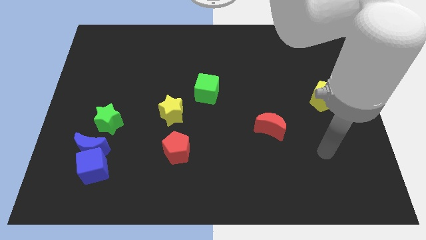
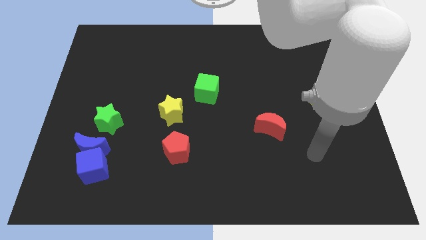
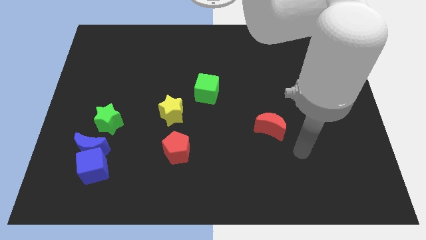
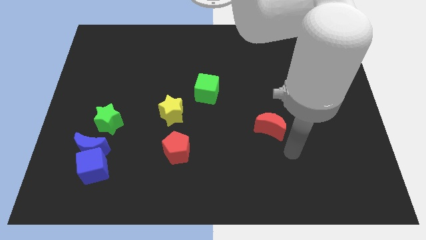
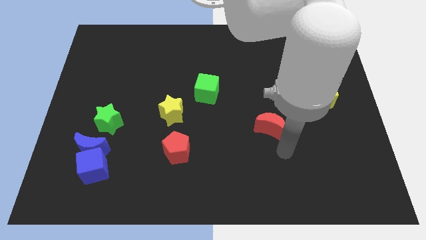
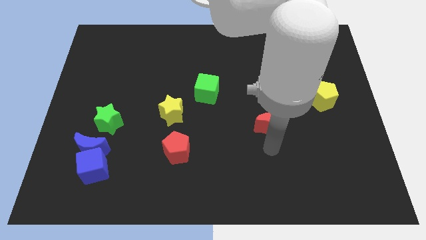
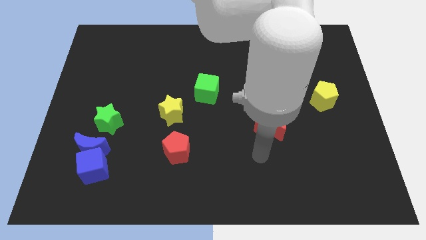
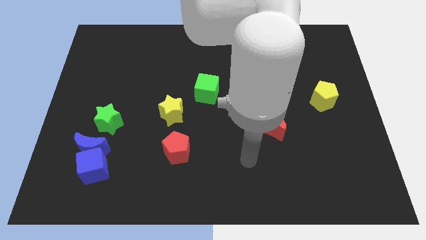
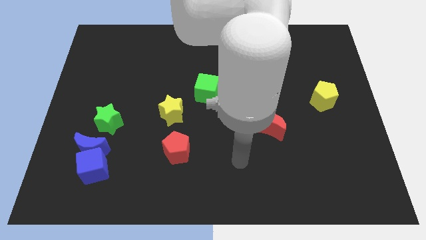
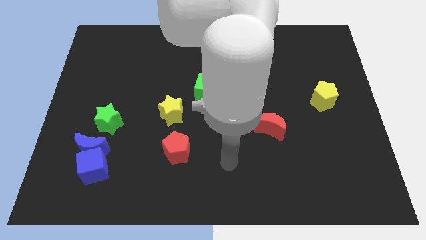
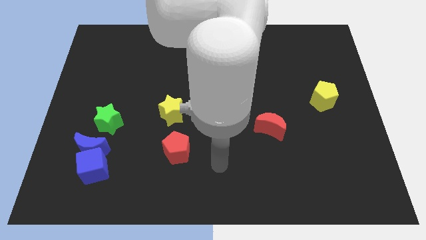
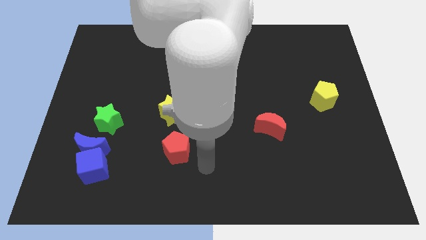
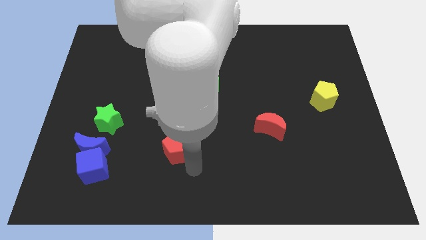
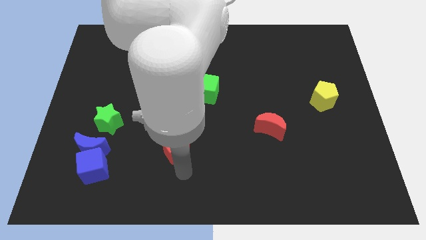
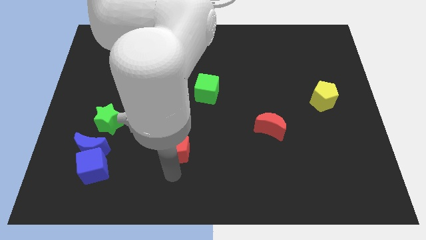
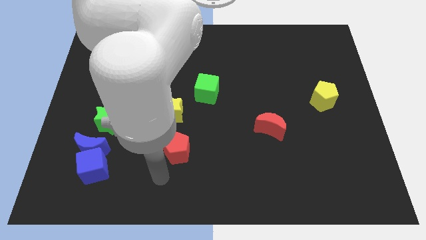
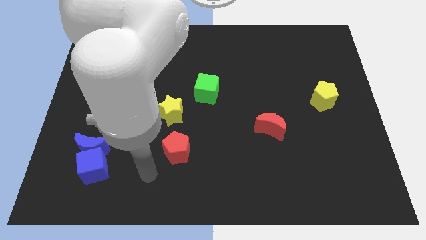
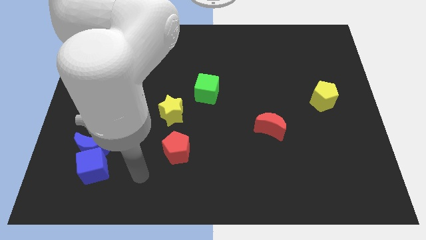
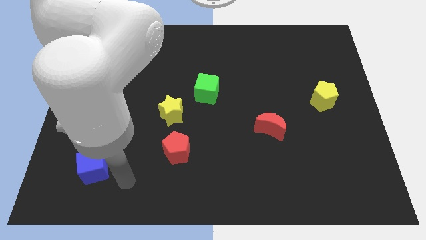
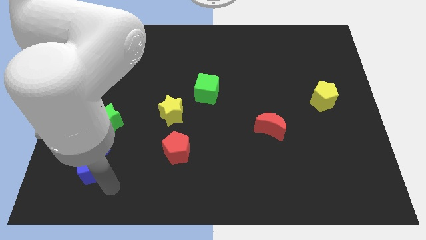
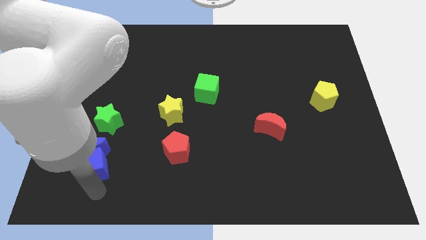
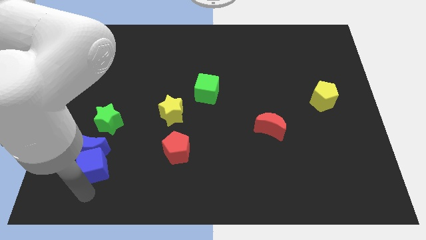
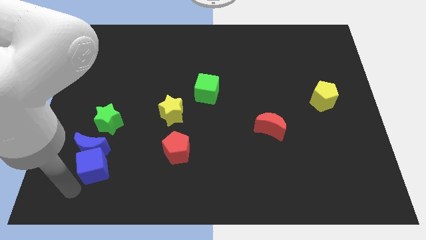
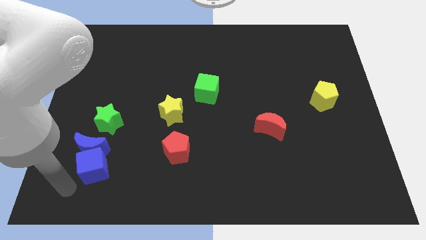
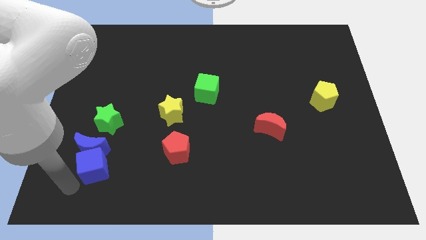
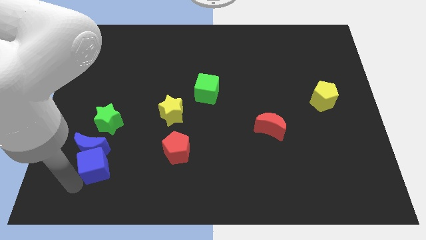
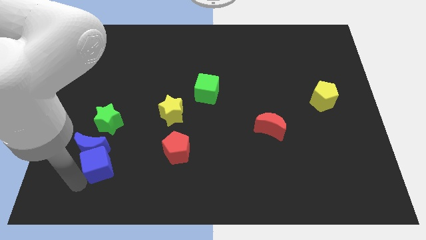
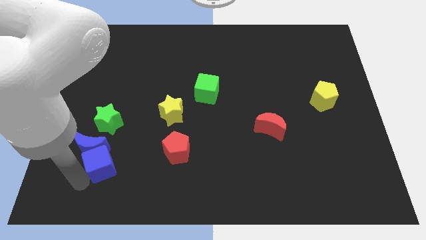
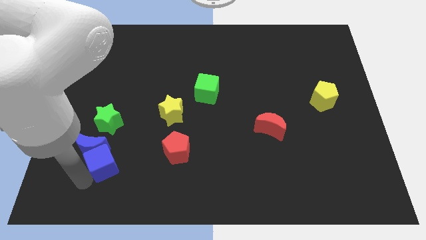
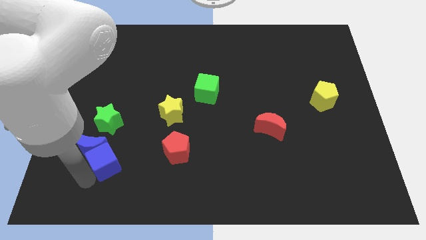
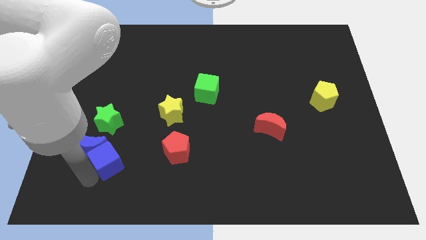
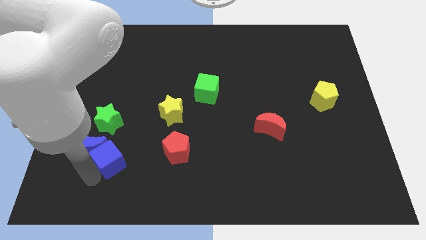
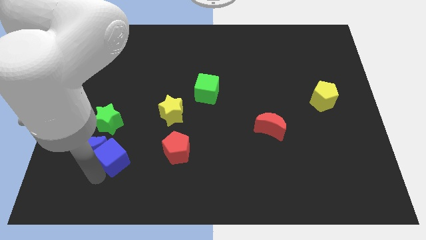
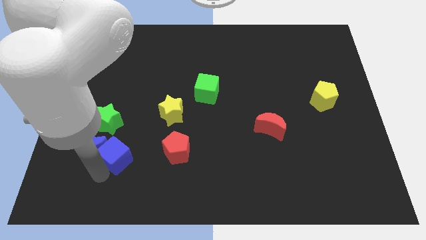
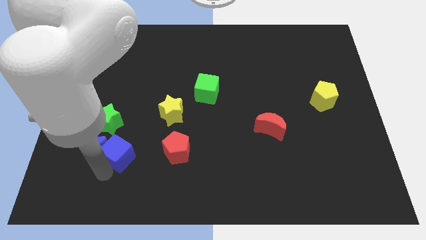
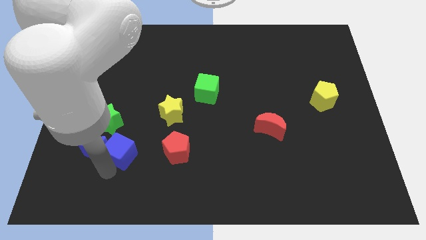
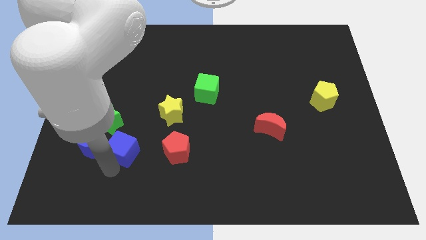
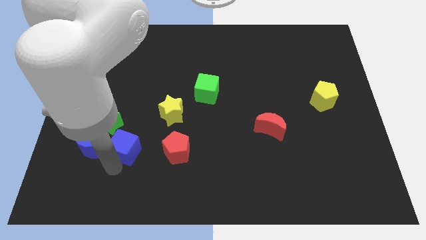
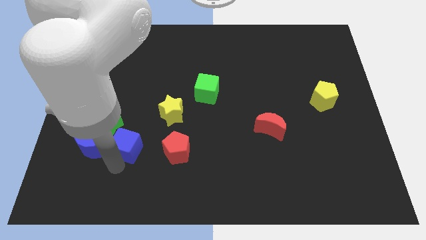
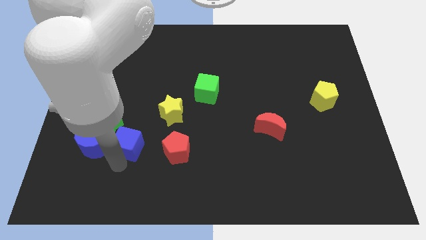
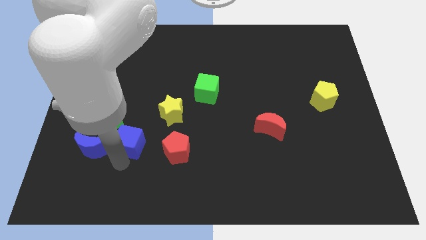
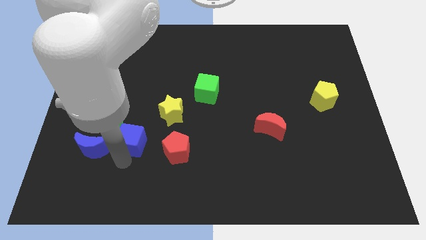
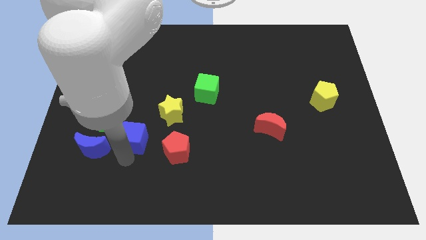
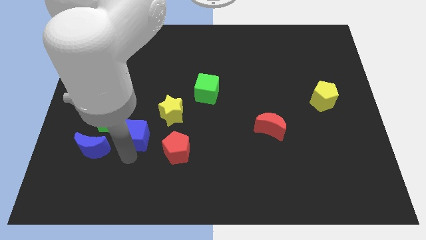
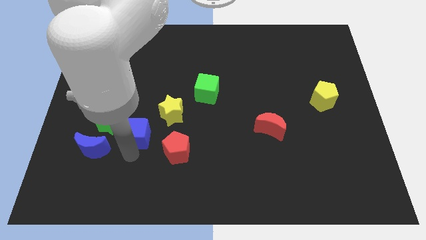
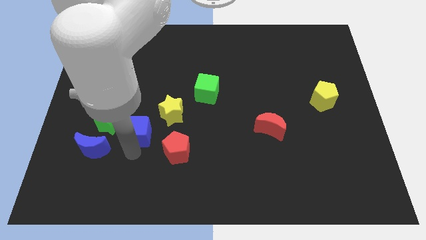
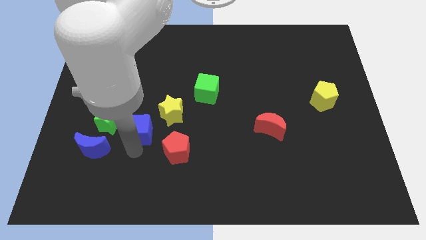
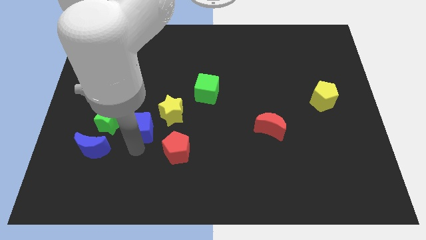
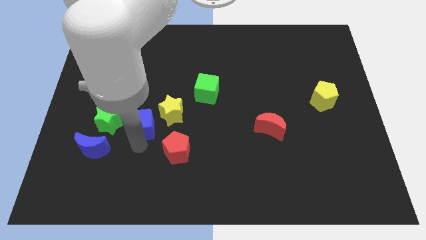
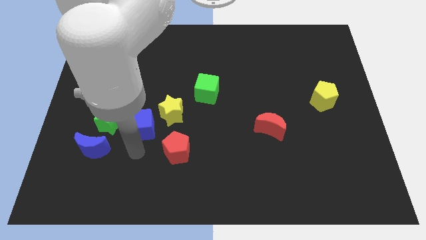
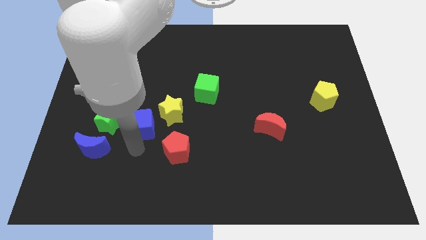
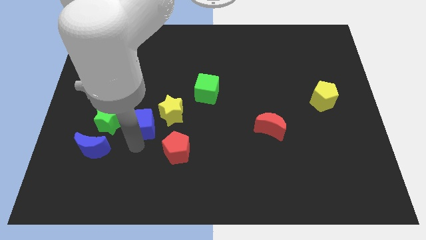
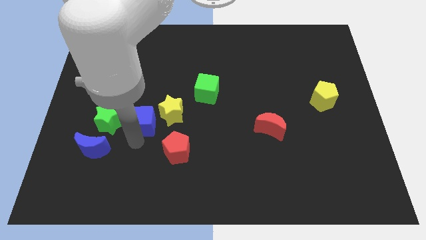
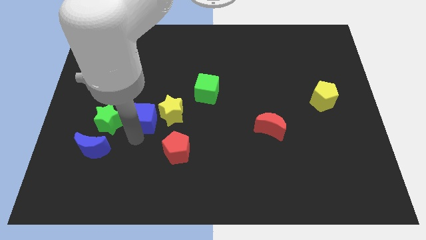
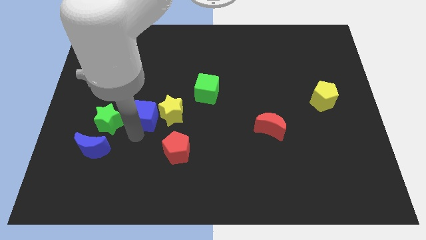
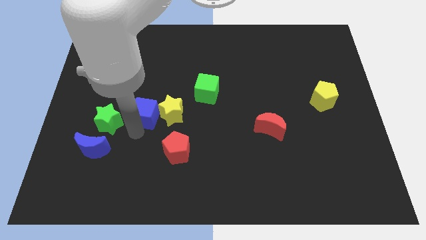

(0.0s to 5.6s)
move the blue cube diagonally up and to the left of the yellow star

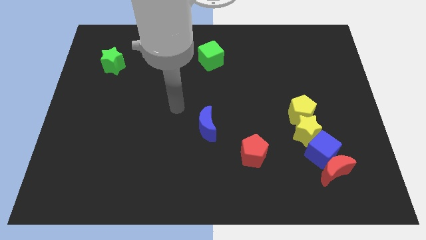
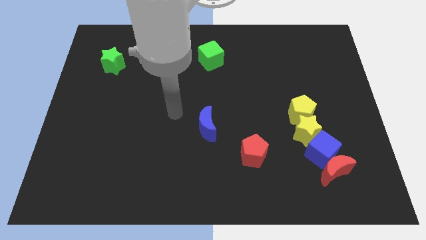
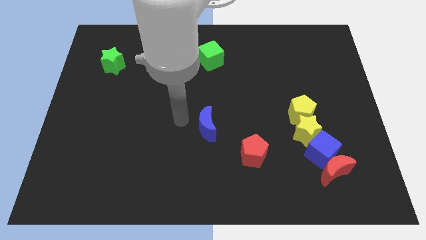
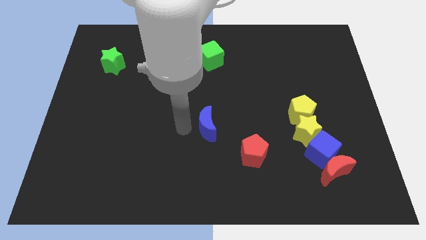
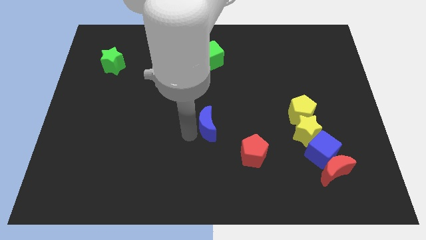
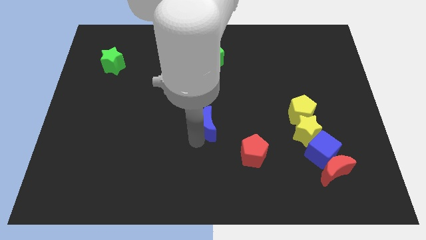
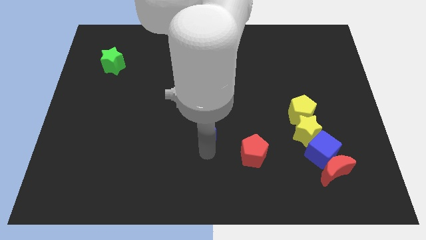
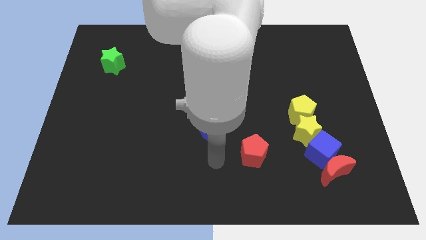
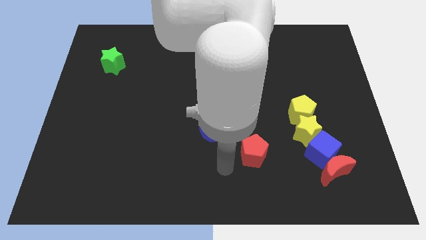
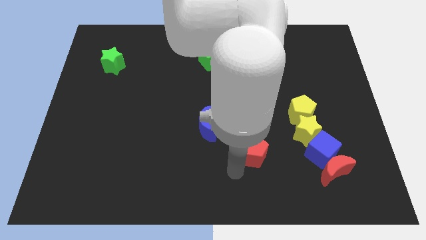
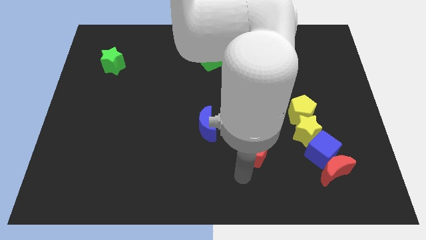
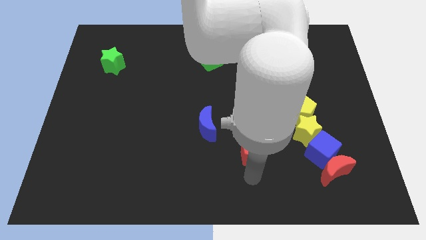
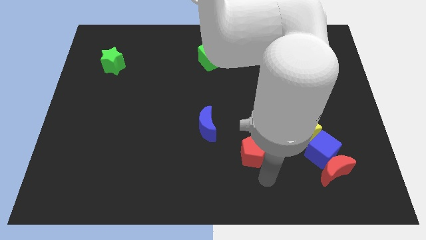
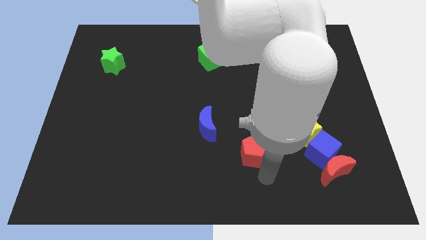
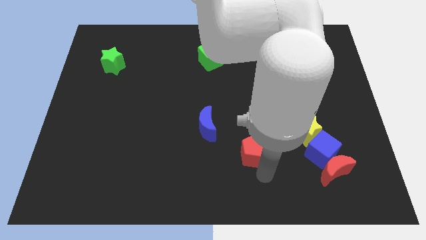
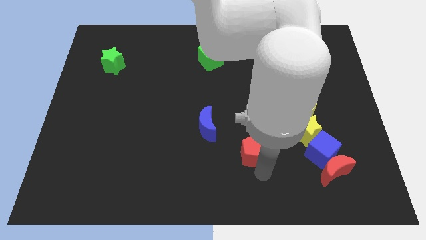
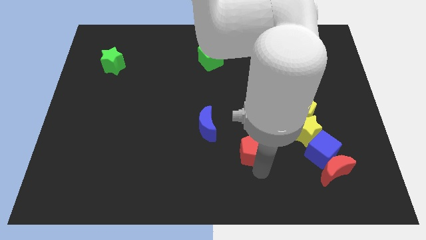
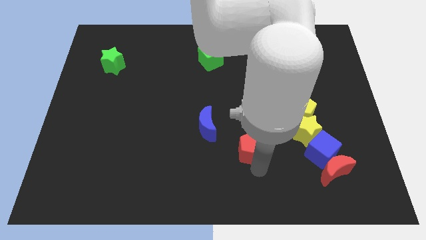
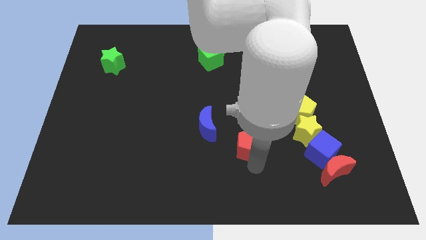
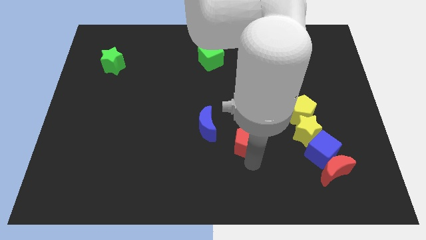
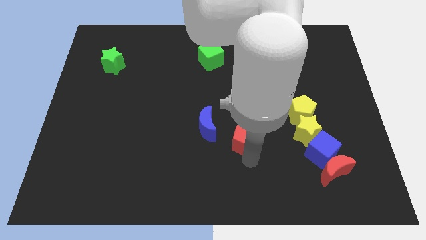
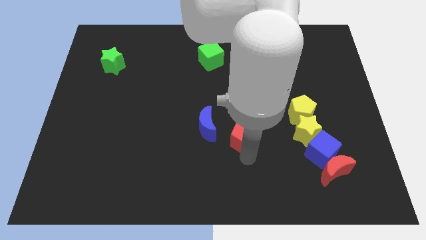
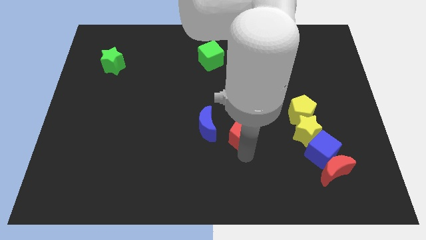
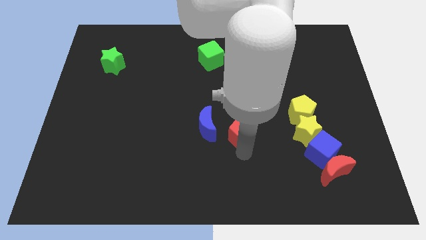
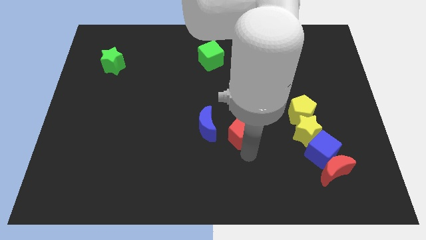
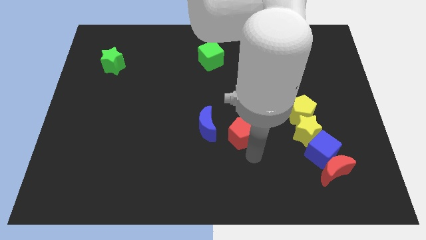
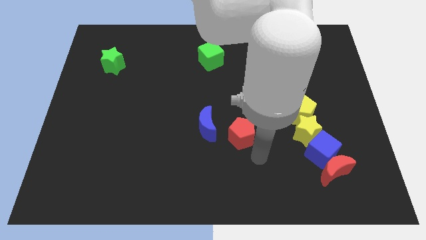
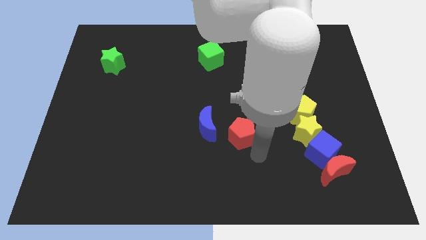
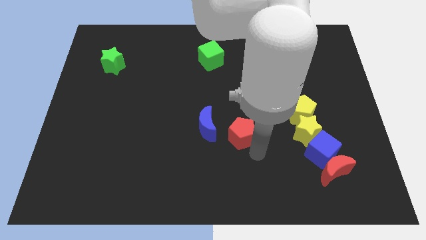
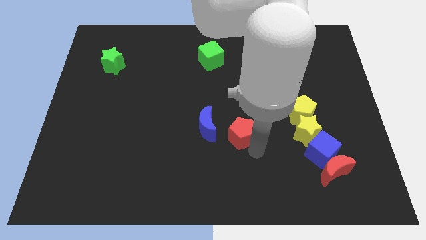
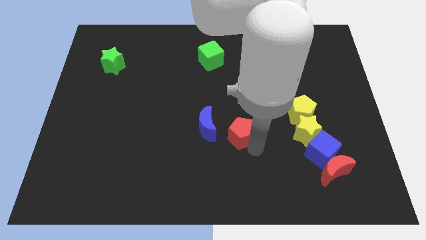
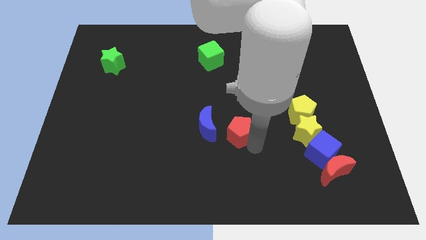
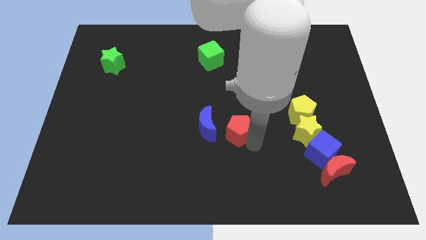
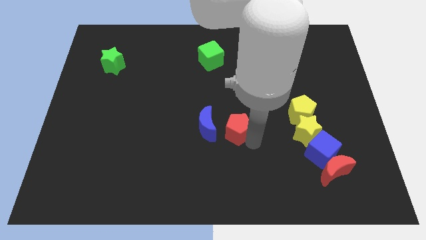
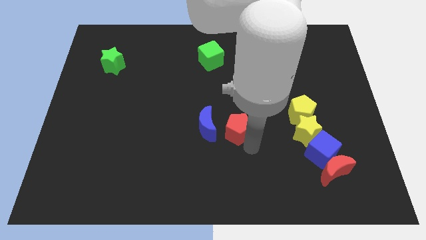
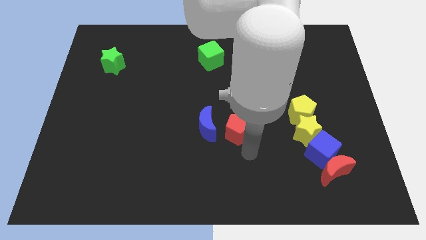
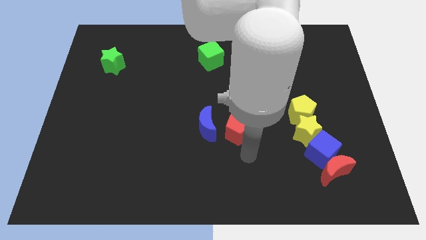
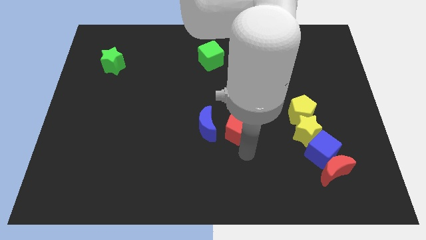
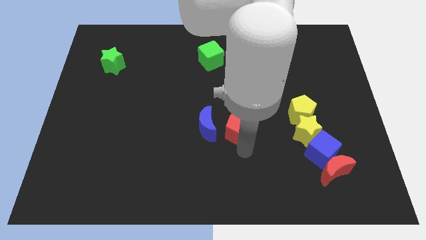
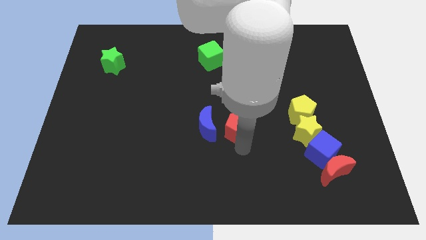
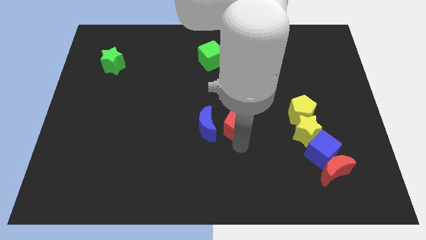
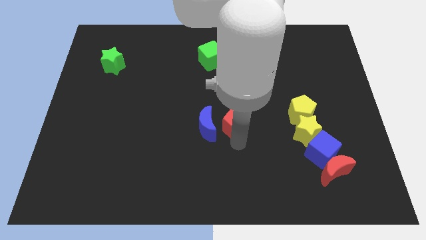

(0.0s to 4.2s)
put the red pentagon to the top right of the blue moon
